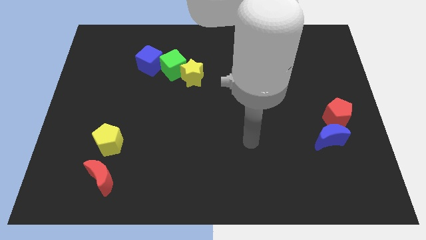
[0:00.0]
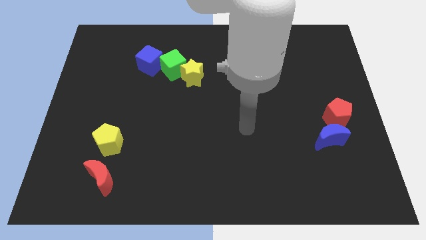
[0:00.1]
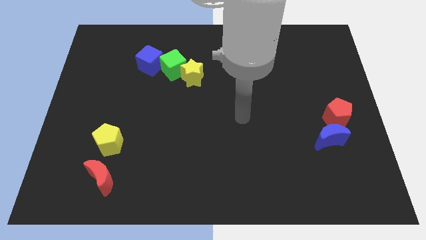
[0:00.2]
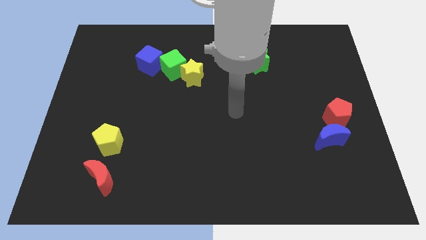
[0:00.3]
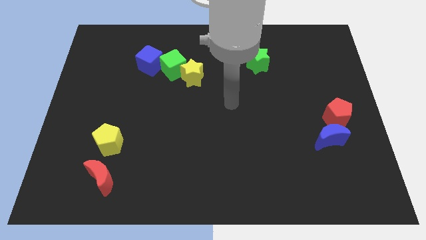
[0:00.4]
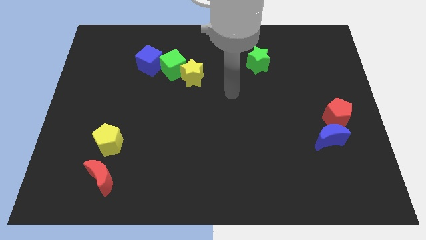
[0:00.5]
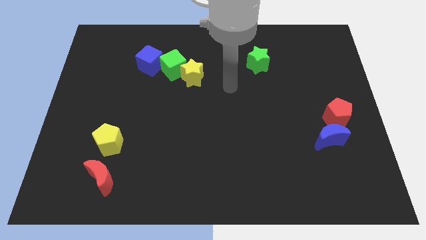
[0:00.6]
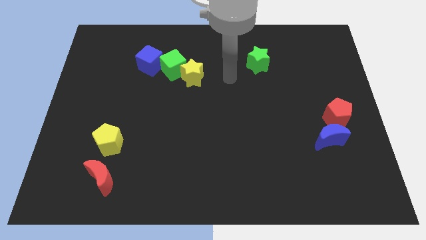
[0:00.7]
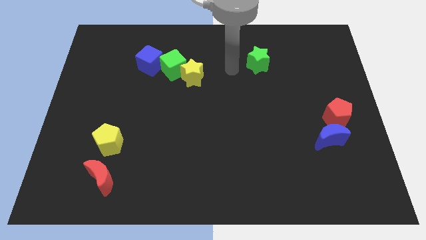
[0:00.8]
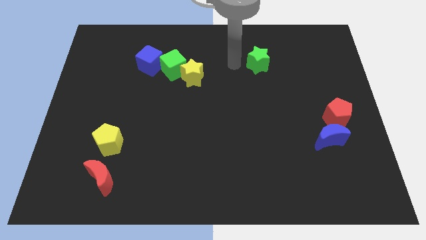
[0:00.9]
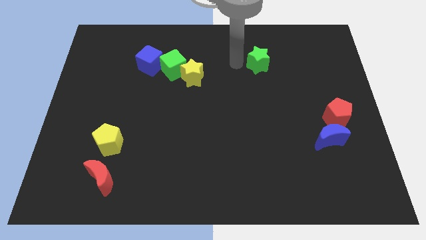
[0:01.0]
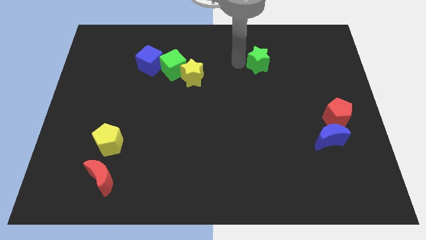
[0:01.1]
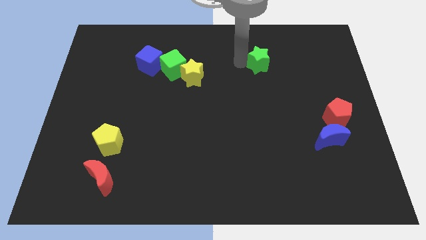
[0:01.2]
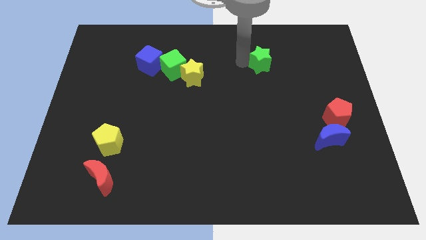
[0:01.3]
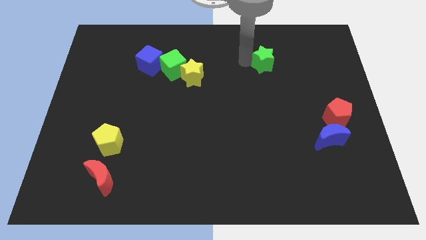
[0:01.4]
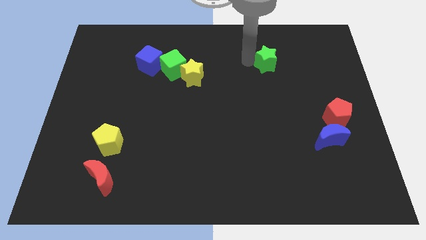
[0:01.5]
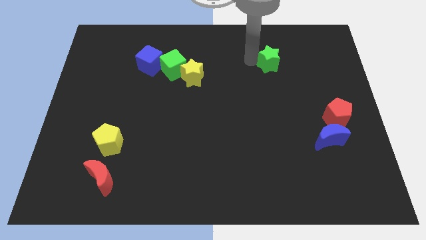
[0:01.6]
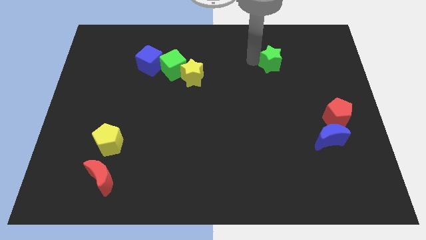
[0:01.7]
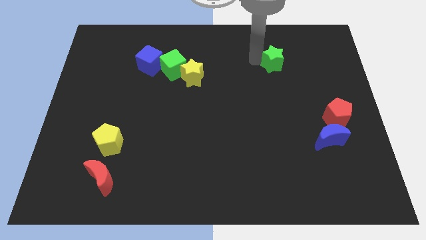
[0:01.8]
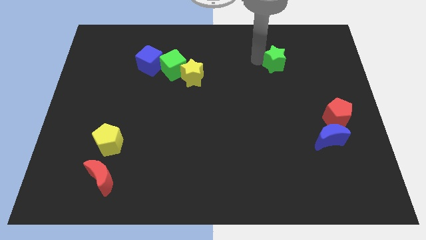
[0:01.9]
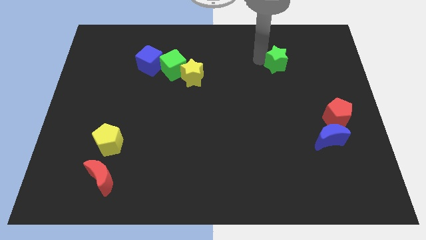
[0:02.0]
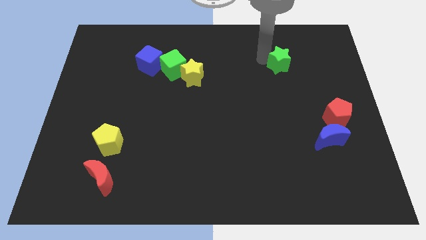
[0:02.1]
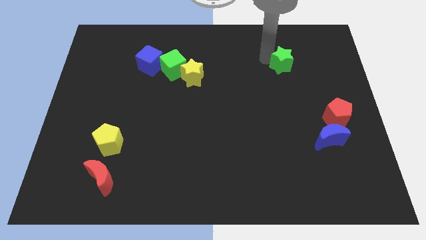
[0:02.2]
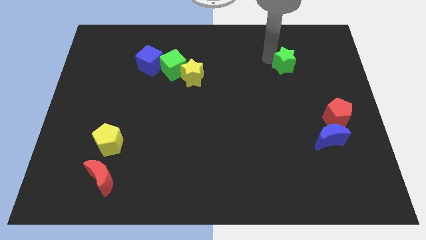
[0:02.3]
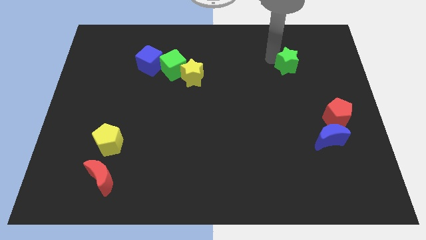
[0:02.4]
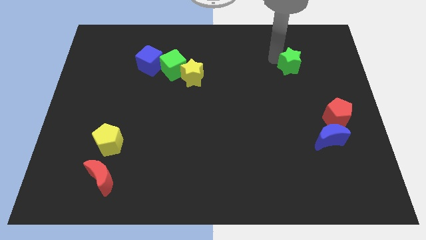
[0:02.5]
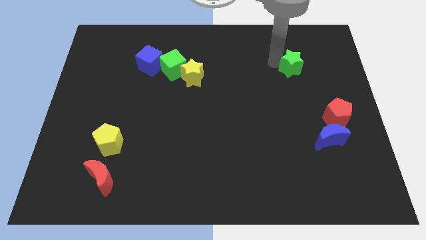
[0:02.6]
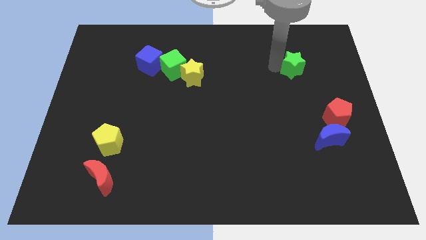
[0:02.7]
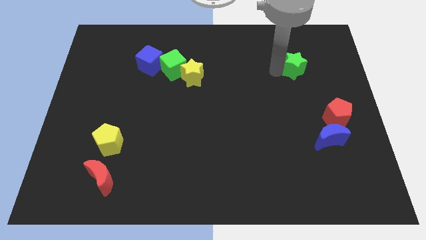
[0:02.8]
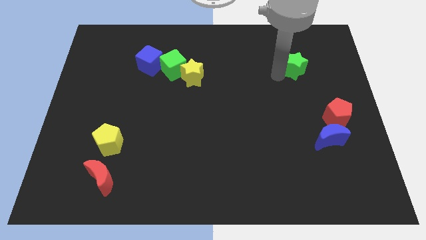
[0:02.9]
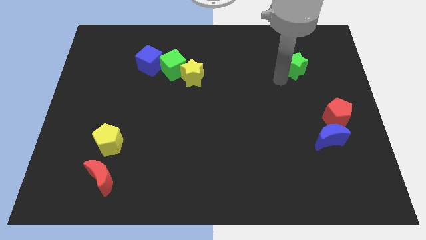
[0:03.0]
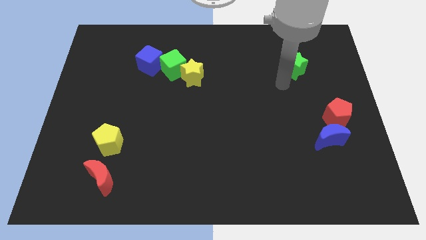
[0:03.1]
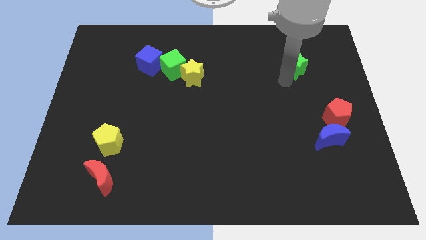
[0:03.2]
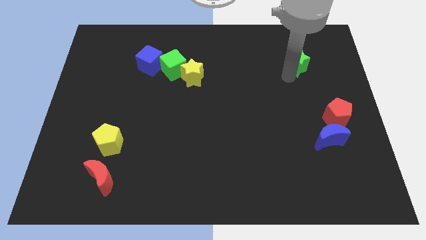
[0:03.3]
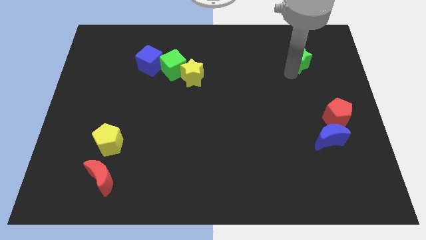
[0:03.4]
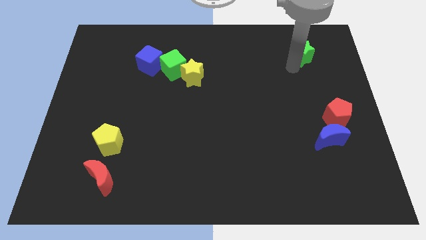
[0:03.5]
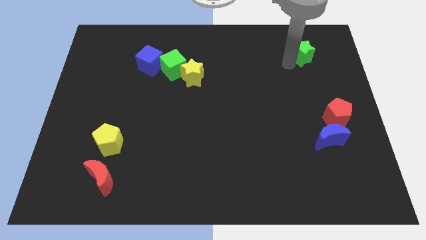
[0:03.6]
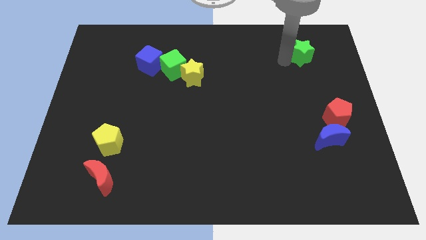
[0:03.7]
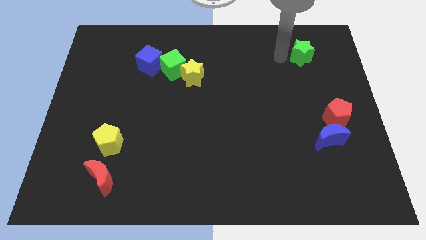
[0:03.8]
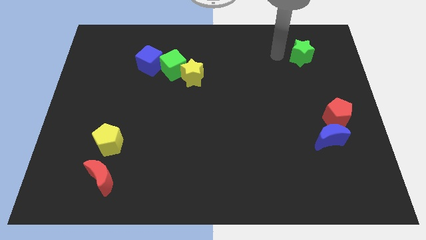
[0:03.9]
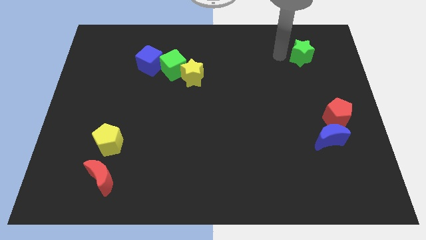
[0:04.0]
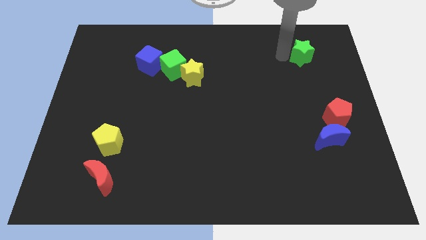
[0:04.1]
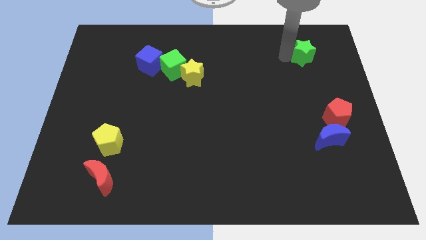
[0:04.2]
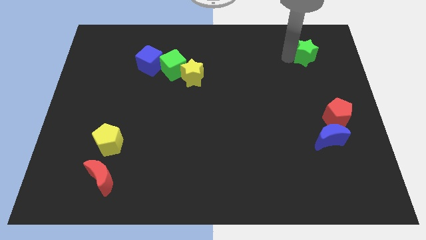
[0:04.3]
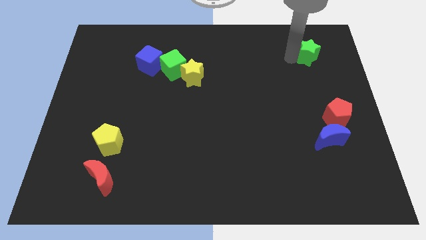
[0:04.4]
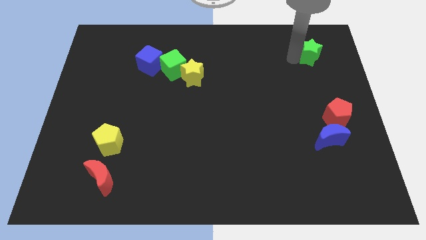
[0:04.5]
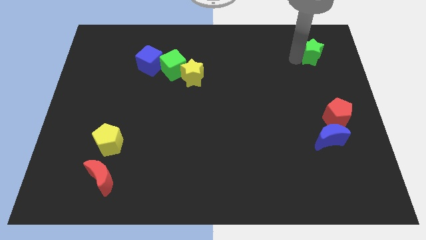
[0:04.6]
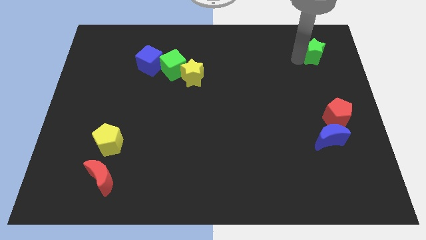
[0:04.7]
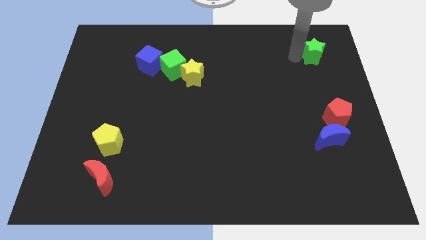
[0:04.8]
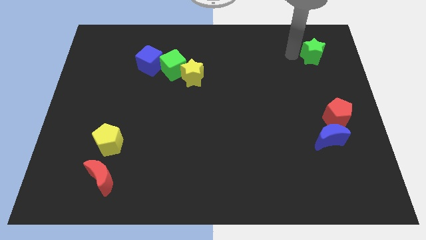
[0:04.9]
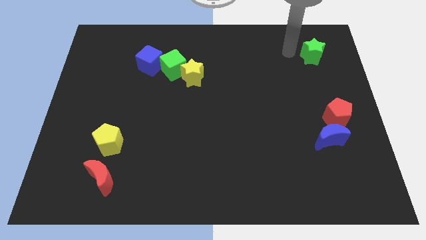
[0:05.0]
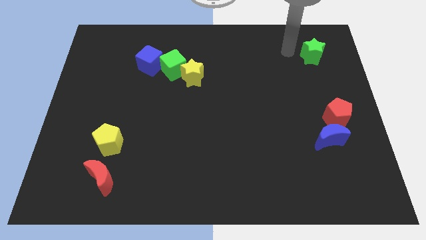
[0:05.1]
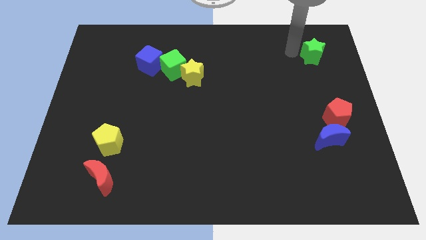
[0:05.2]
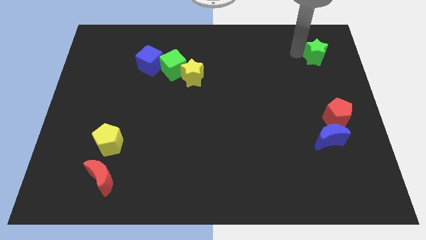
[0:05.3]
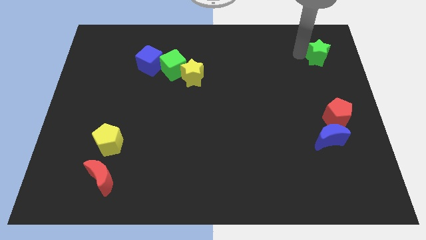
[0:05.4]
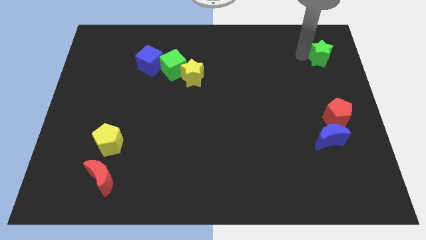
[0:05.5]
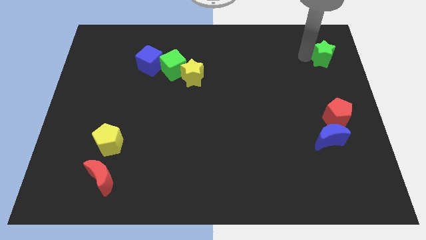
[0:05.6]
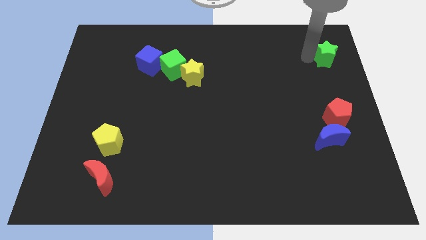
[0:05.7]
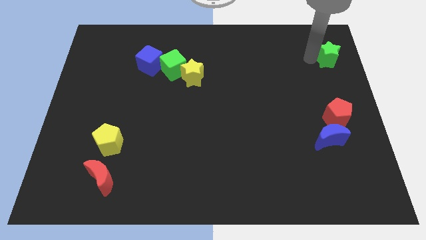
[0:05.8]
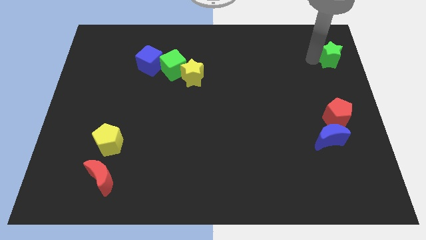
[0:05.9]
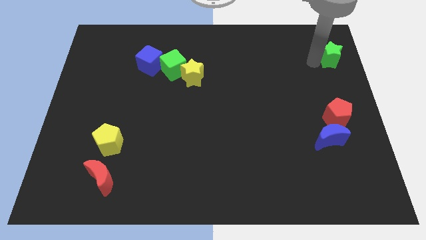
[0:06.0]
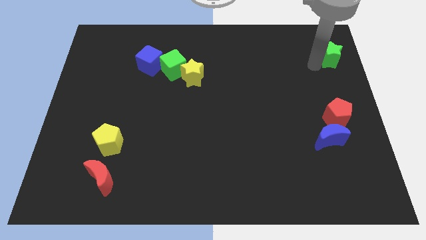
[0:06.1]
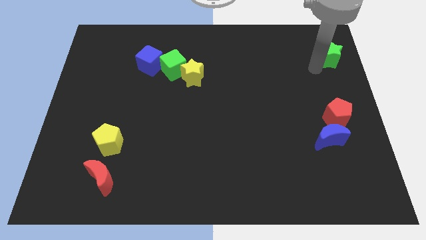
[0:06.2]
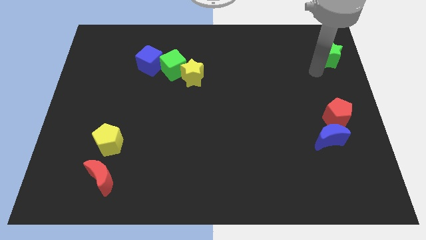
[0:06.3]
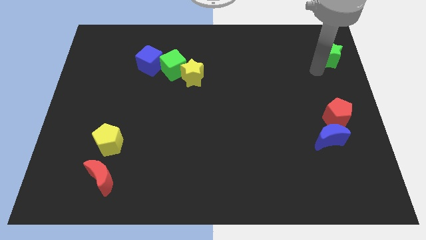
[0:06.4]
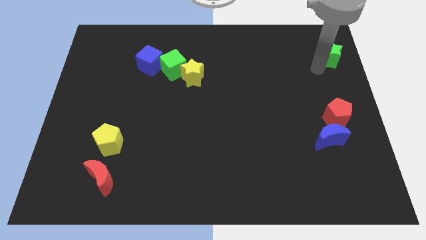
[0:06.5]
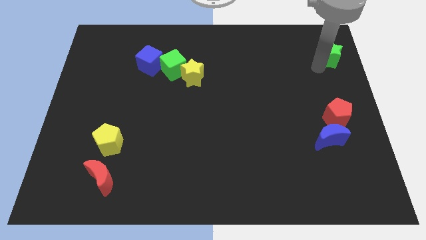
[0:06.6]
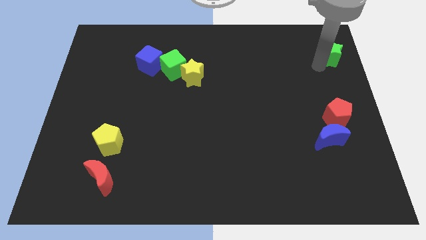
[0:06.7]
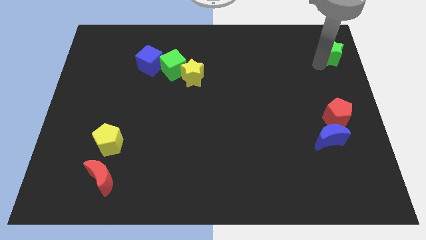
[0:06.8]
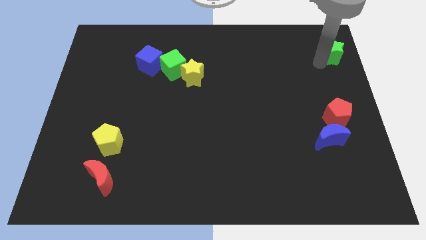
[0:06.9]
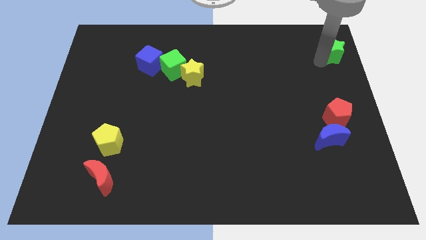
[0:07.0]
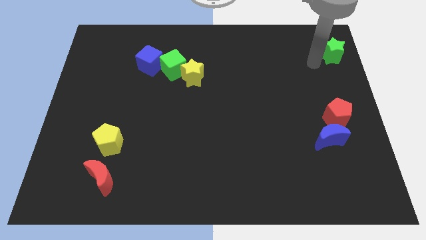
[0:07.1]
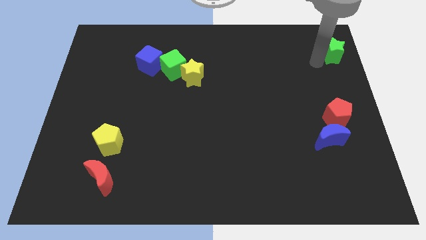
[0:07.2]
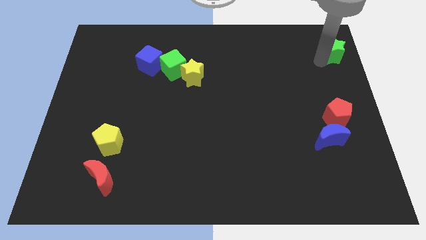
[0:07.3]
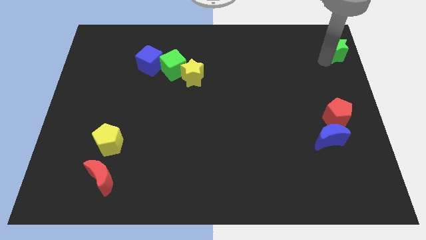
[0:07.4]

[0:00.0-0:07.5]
push the green star to the top right of the board
